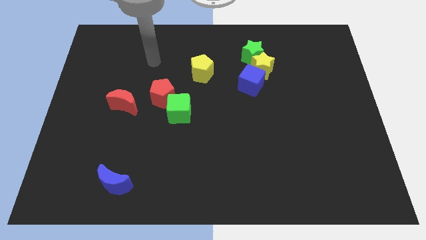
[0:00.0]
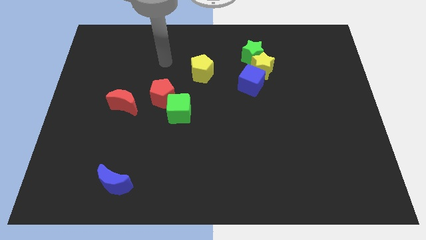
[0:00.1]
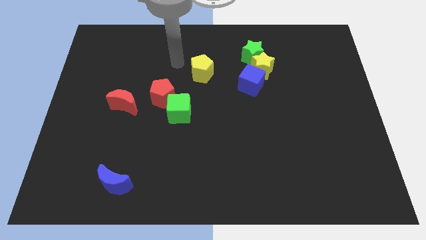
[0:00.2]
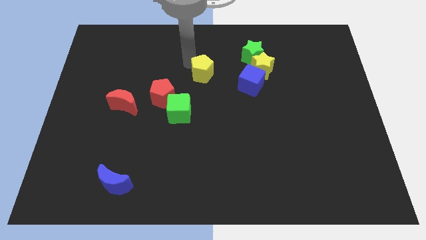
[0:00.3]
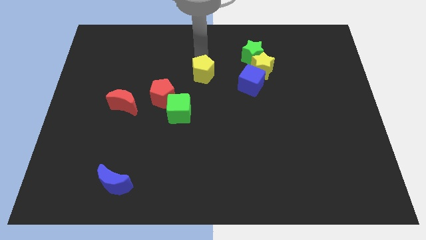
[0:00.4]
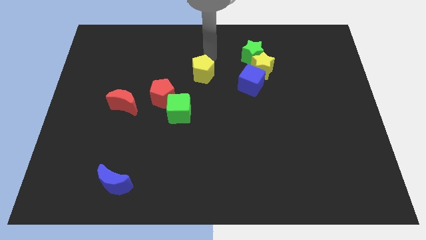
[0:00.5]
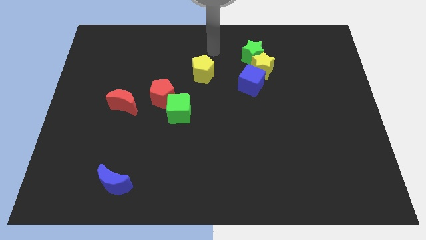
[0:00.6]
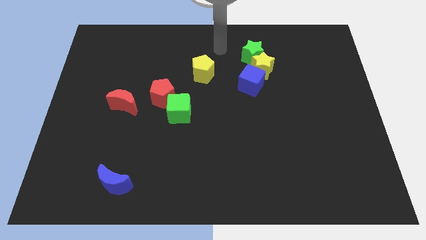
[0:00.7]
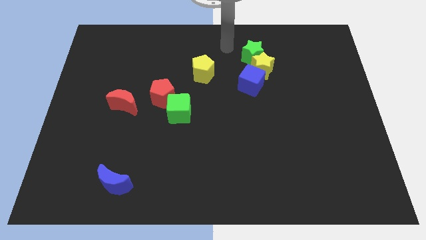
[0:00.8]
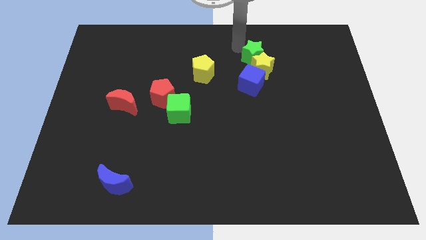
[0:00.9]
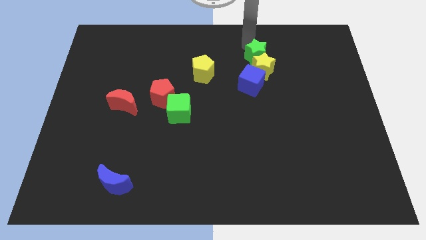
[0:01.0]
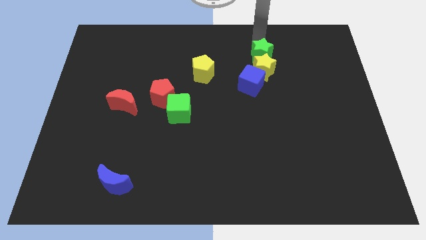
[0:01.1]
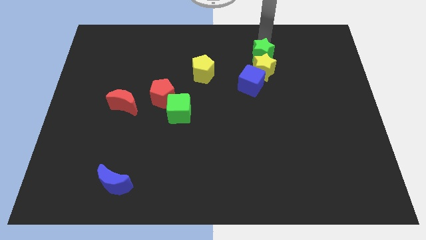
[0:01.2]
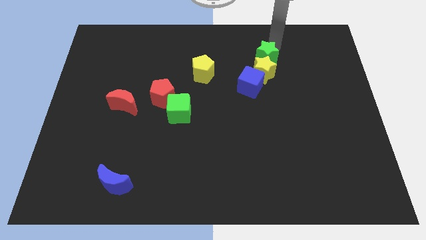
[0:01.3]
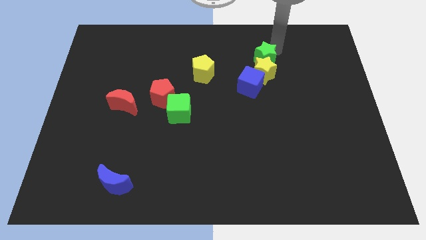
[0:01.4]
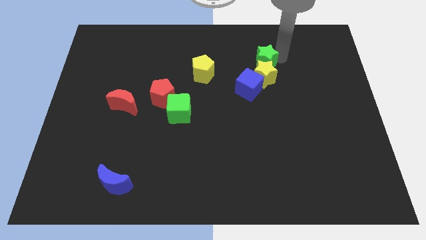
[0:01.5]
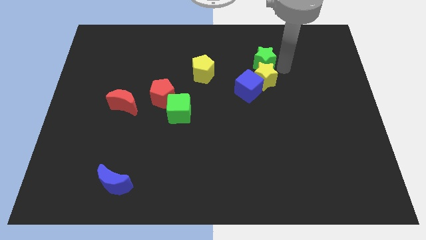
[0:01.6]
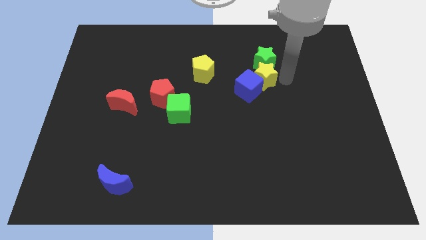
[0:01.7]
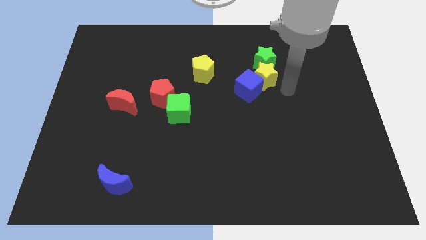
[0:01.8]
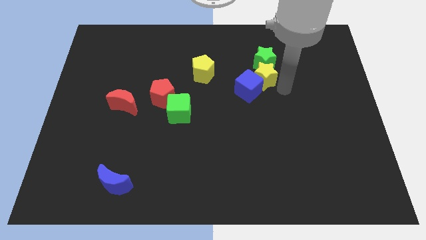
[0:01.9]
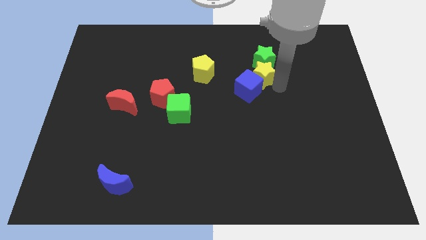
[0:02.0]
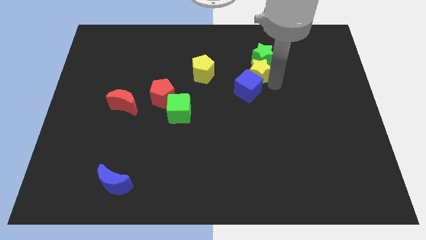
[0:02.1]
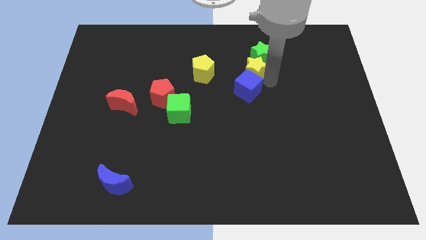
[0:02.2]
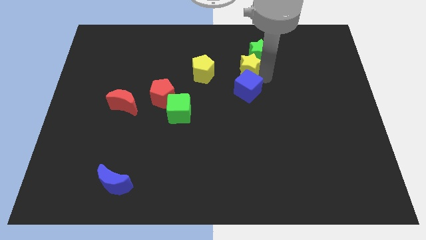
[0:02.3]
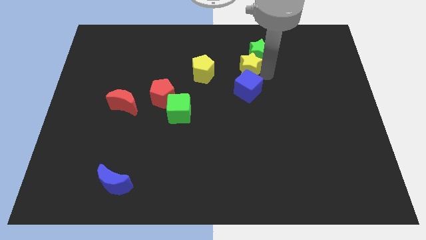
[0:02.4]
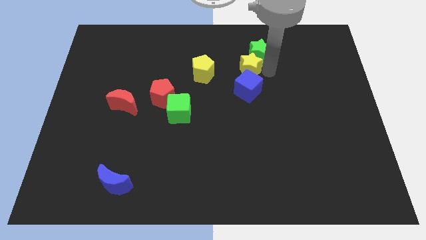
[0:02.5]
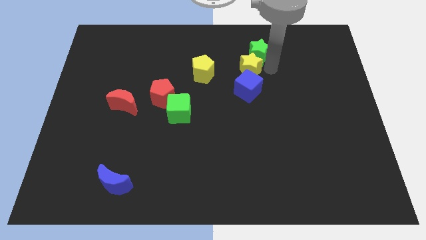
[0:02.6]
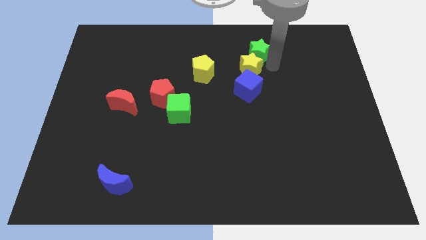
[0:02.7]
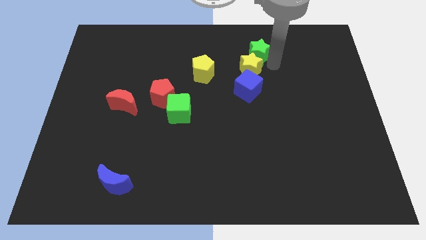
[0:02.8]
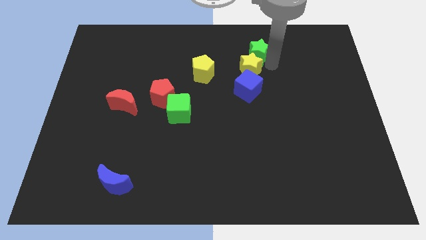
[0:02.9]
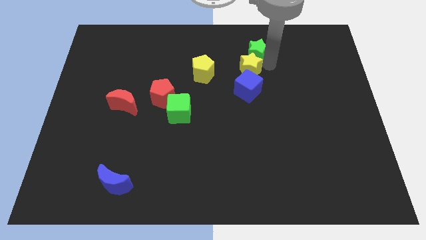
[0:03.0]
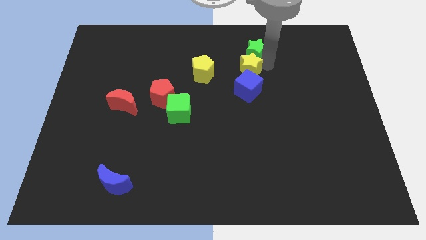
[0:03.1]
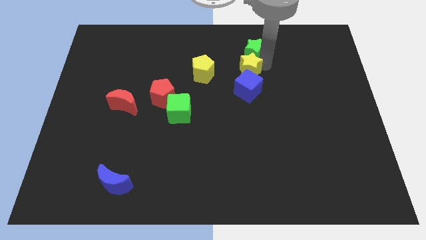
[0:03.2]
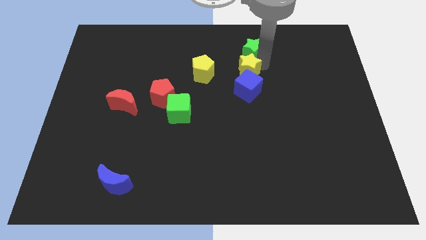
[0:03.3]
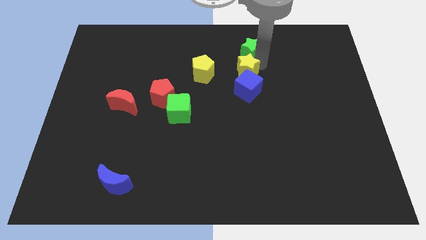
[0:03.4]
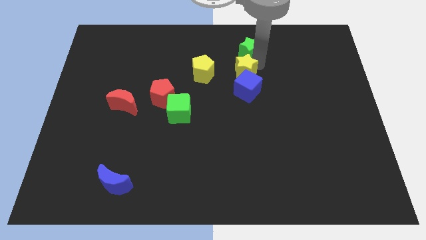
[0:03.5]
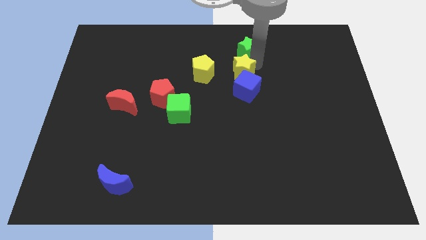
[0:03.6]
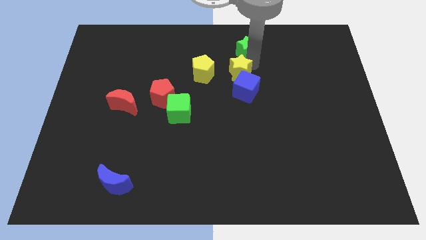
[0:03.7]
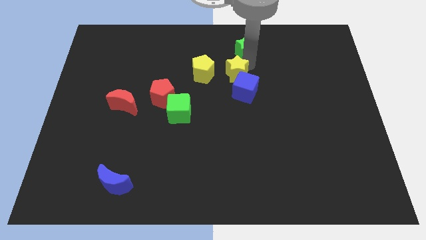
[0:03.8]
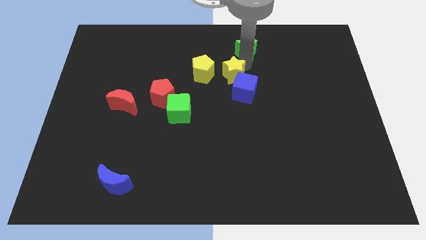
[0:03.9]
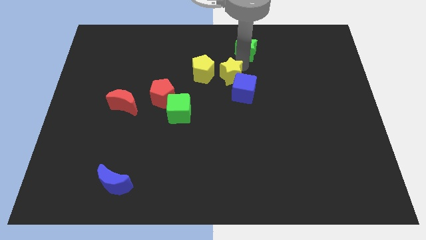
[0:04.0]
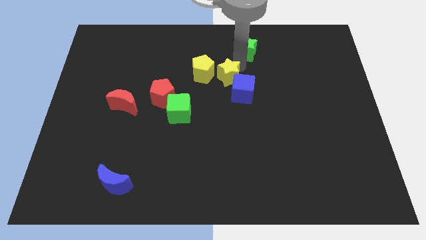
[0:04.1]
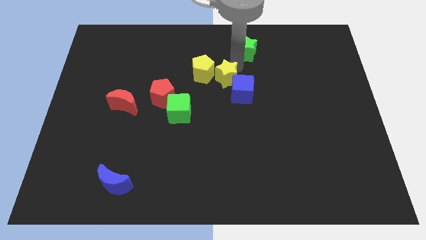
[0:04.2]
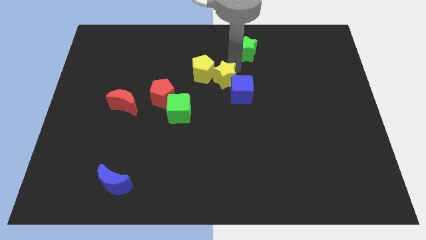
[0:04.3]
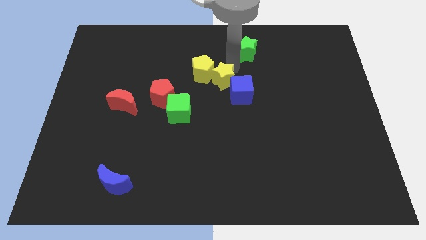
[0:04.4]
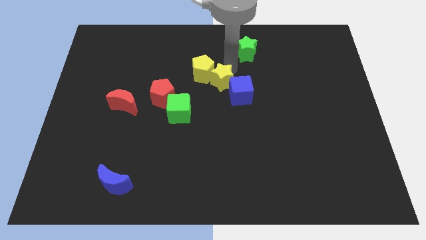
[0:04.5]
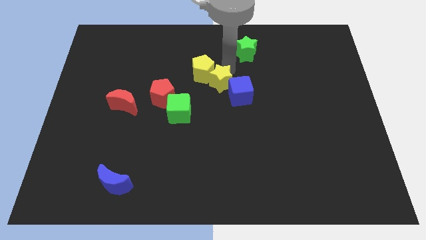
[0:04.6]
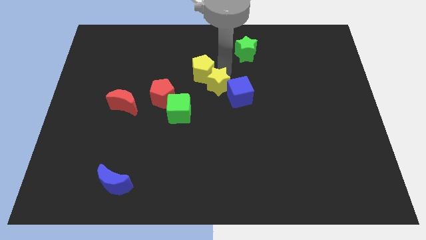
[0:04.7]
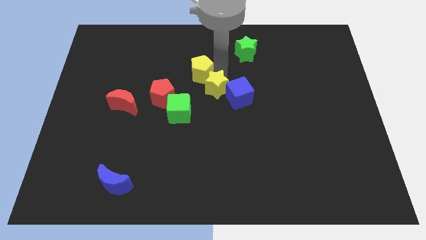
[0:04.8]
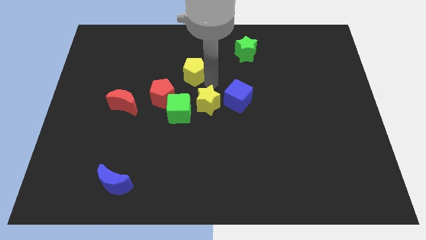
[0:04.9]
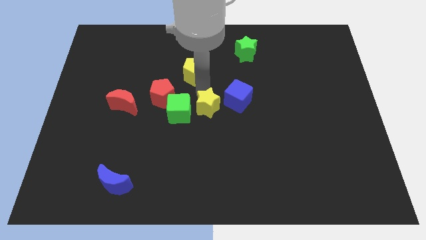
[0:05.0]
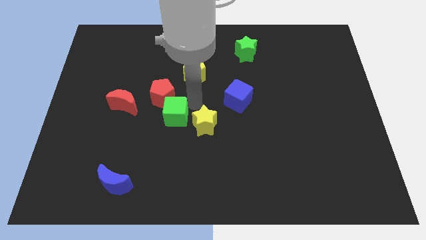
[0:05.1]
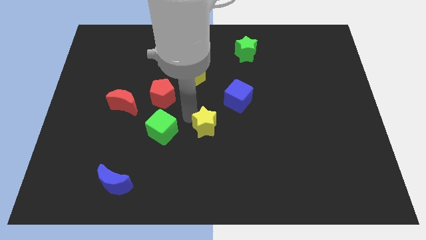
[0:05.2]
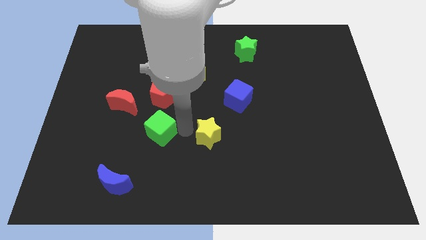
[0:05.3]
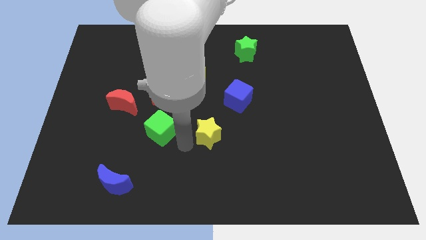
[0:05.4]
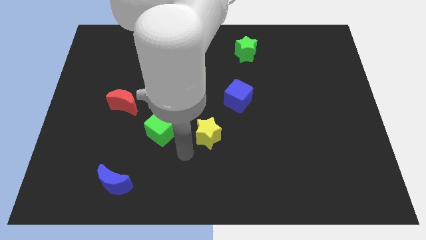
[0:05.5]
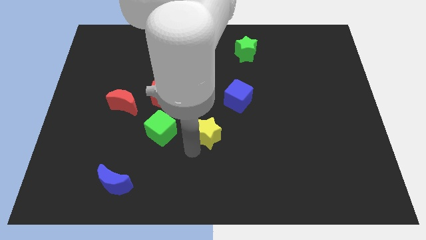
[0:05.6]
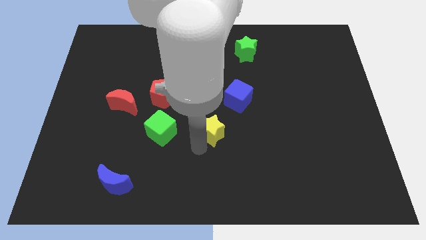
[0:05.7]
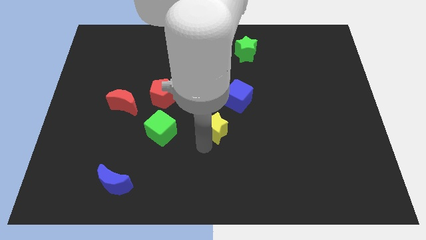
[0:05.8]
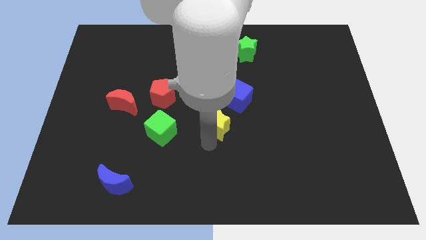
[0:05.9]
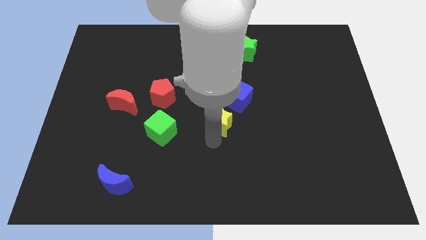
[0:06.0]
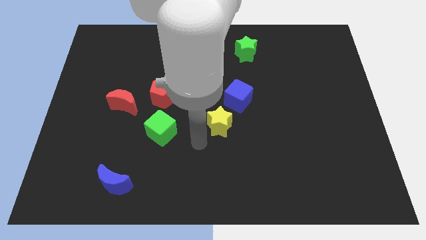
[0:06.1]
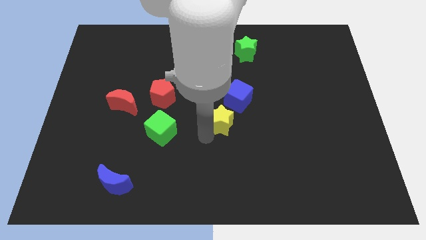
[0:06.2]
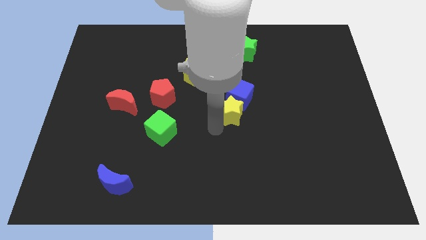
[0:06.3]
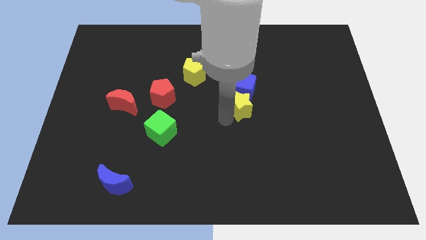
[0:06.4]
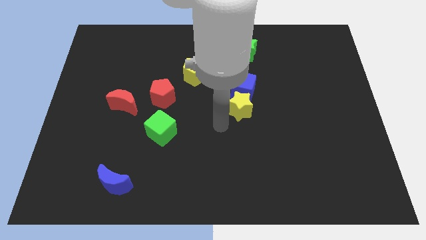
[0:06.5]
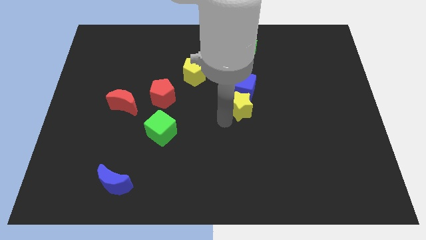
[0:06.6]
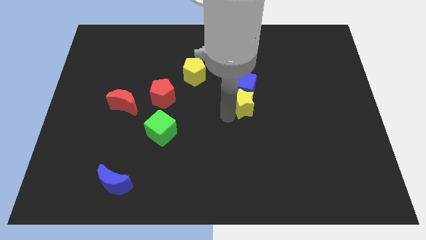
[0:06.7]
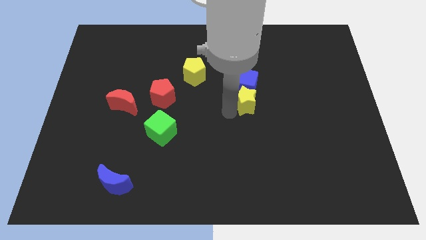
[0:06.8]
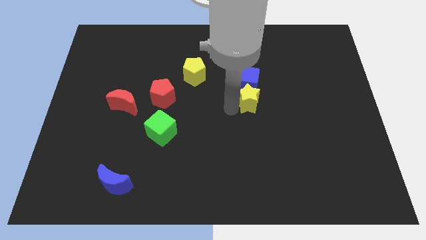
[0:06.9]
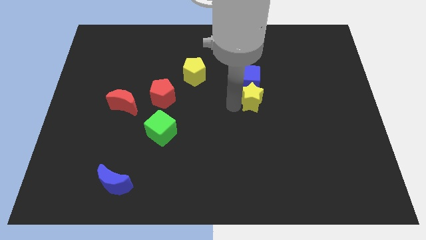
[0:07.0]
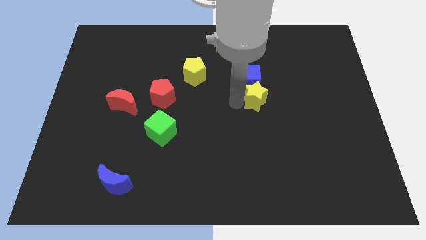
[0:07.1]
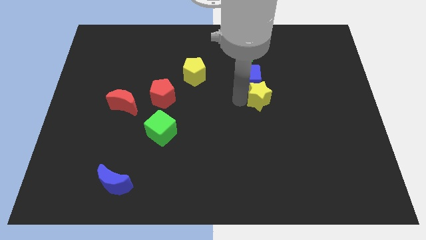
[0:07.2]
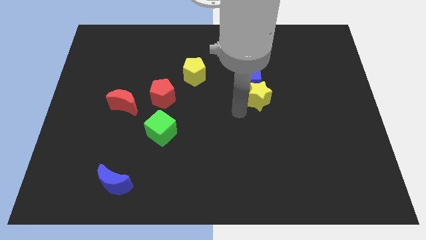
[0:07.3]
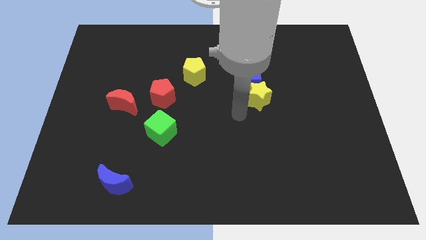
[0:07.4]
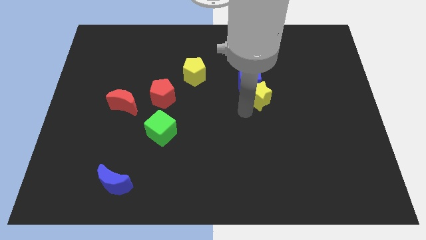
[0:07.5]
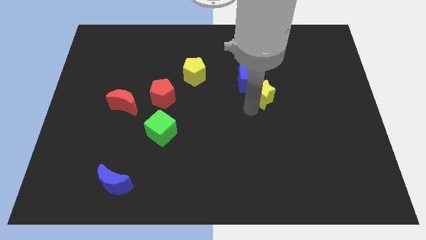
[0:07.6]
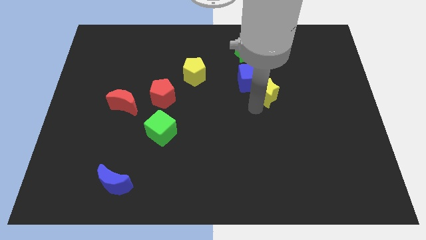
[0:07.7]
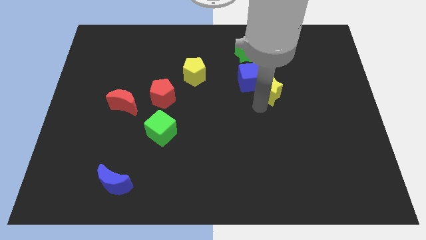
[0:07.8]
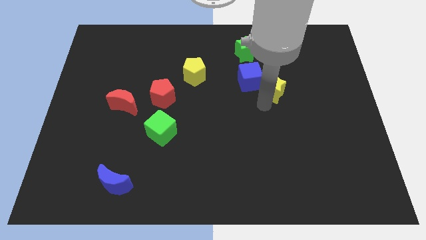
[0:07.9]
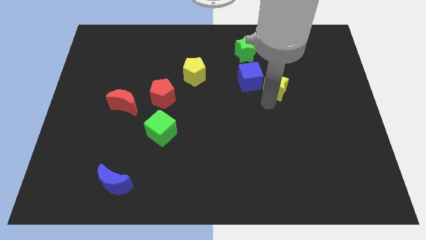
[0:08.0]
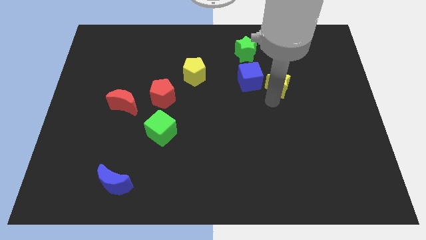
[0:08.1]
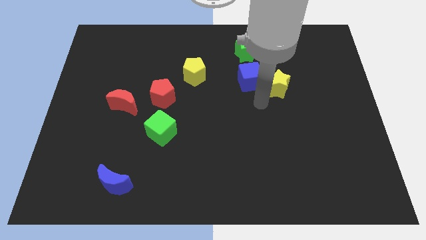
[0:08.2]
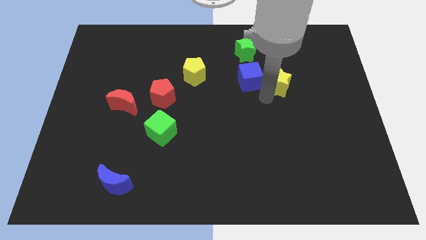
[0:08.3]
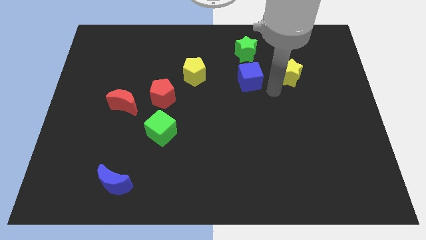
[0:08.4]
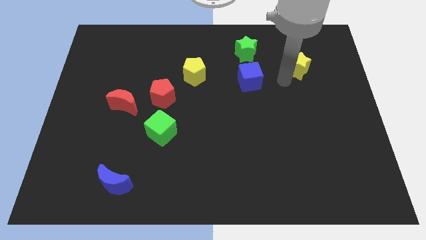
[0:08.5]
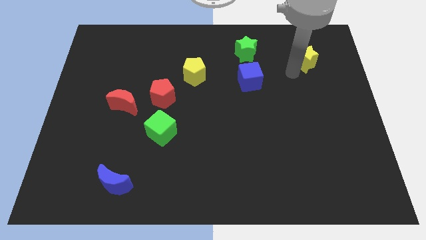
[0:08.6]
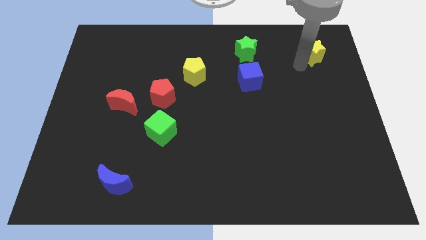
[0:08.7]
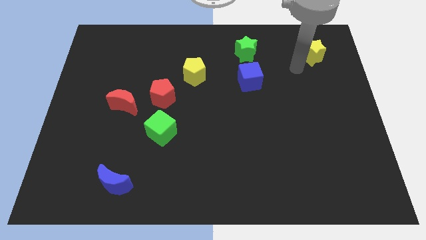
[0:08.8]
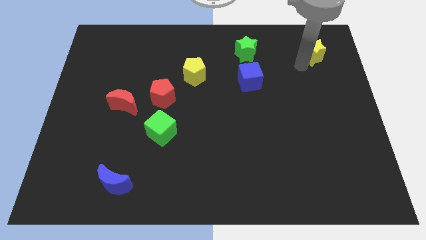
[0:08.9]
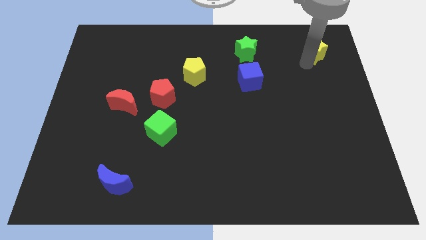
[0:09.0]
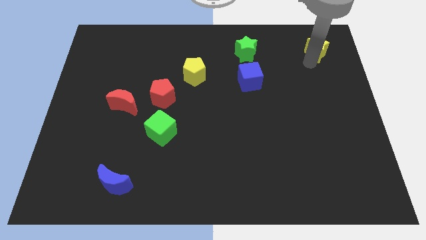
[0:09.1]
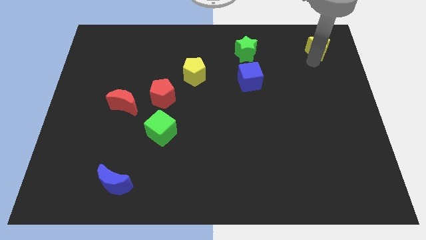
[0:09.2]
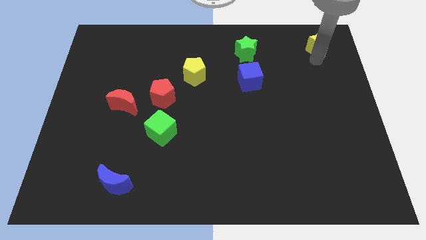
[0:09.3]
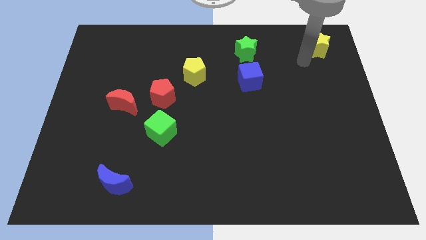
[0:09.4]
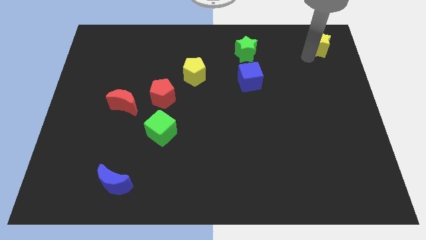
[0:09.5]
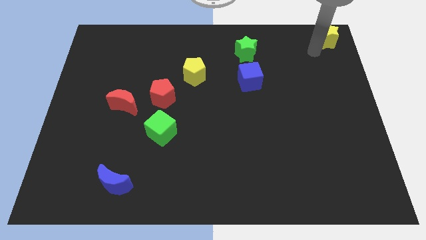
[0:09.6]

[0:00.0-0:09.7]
slide the yellow star to the upper right corner
